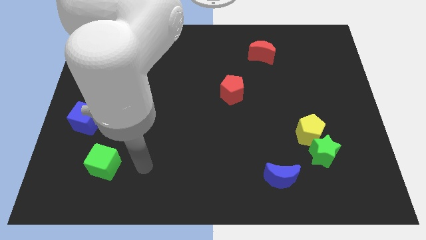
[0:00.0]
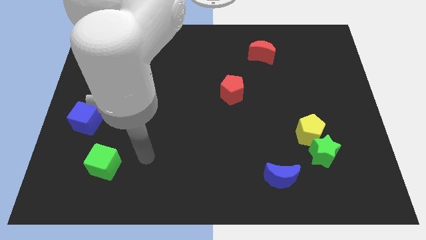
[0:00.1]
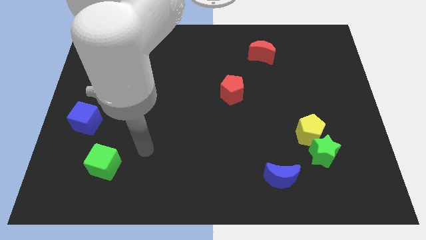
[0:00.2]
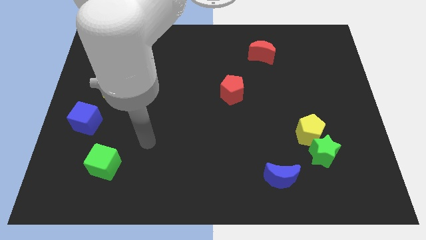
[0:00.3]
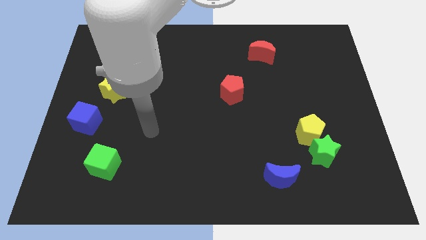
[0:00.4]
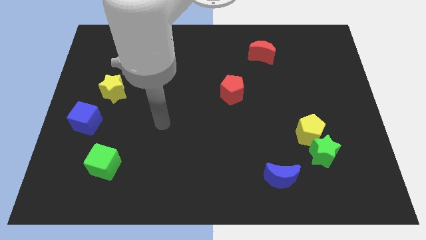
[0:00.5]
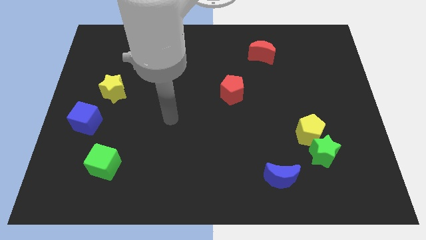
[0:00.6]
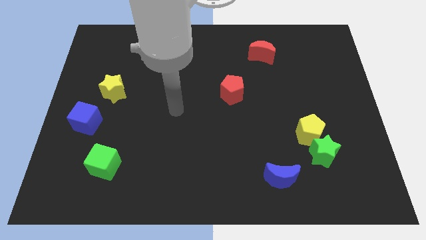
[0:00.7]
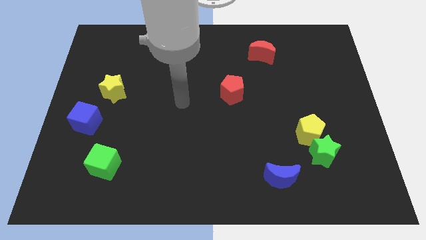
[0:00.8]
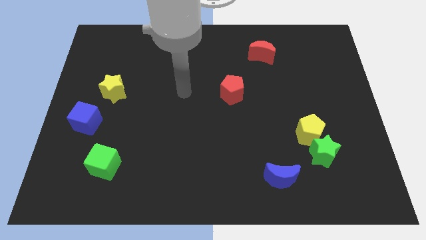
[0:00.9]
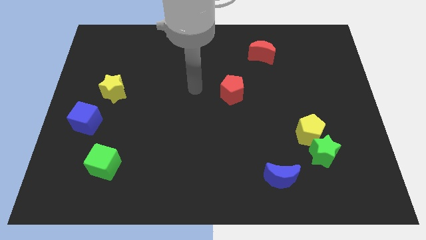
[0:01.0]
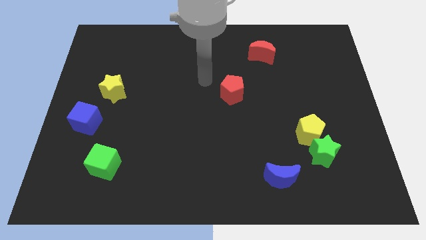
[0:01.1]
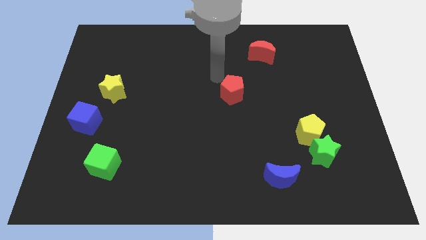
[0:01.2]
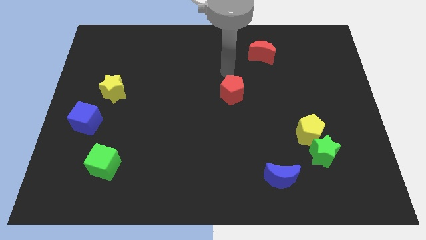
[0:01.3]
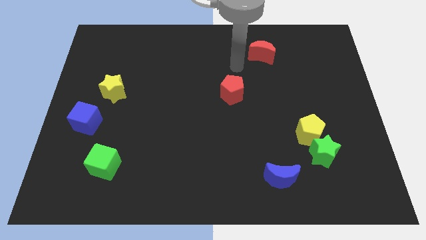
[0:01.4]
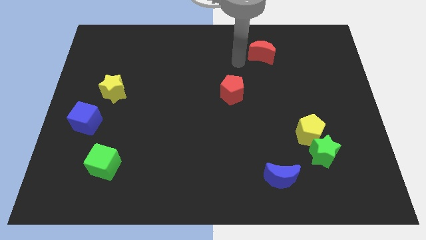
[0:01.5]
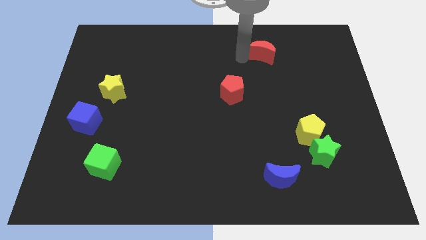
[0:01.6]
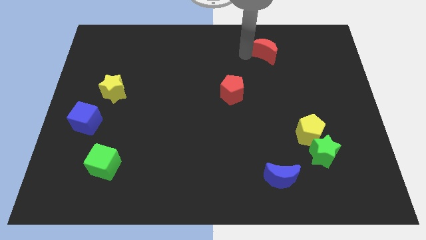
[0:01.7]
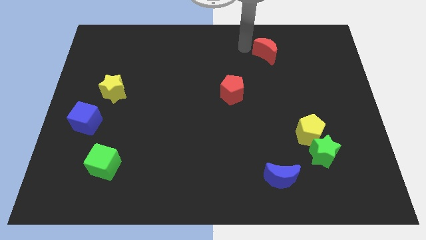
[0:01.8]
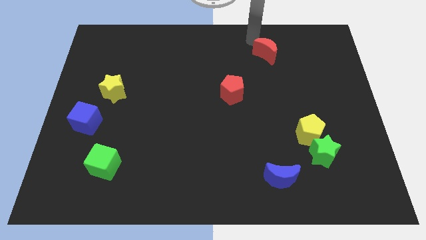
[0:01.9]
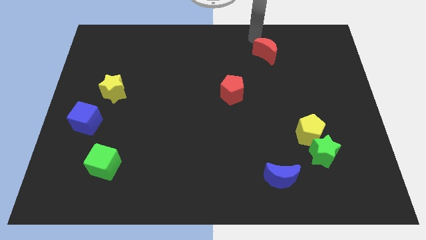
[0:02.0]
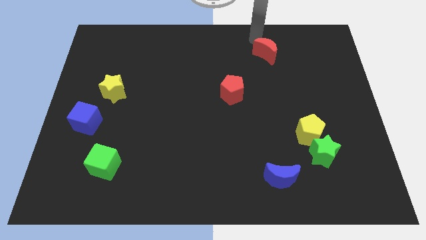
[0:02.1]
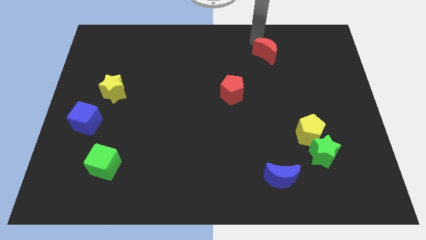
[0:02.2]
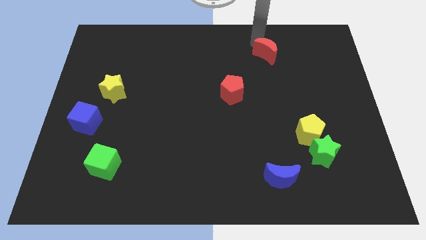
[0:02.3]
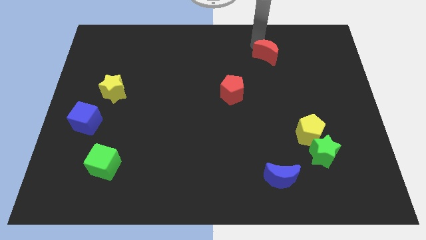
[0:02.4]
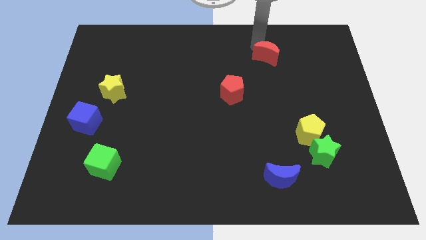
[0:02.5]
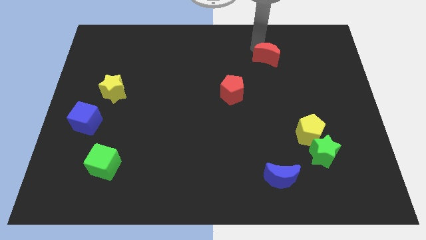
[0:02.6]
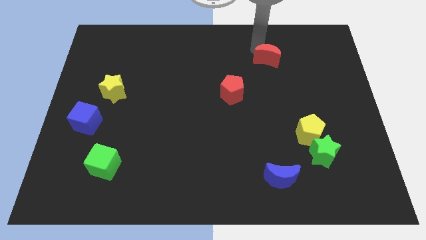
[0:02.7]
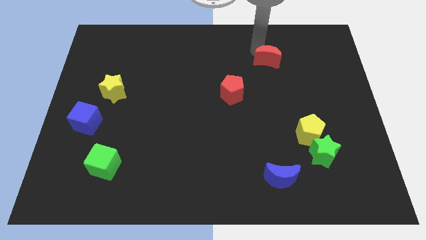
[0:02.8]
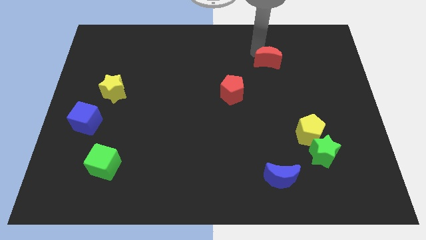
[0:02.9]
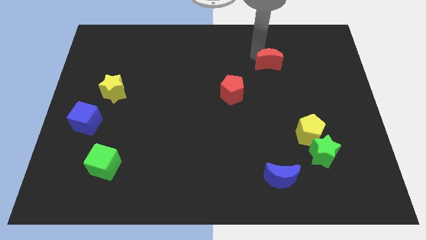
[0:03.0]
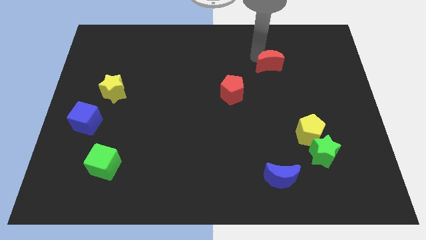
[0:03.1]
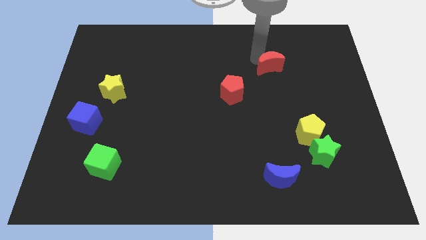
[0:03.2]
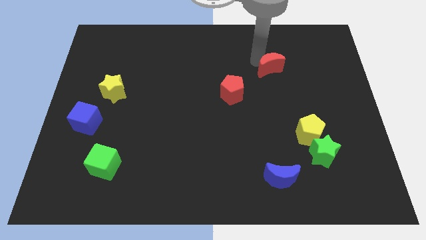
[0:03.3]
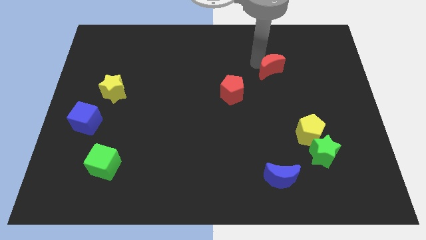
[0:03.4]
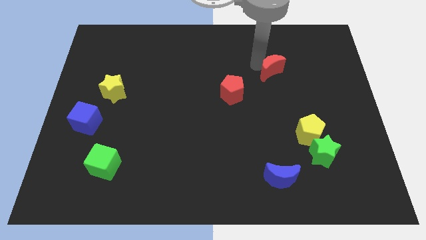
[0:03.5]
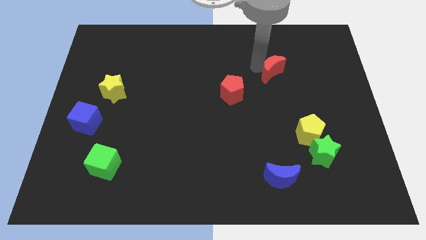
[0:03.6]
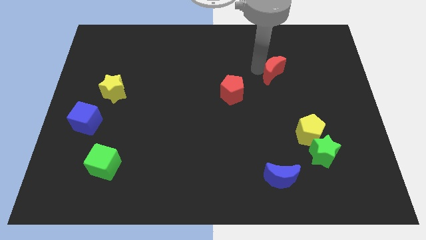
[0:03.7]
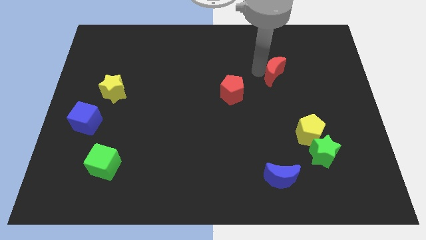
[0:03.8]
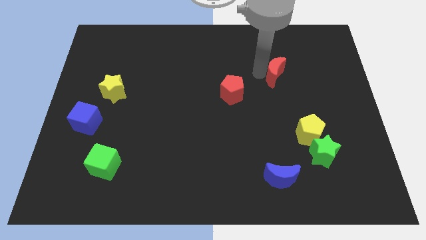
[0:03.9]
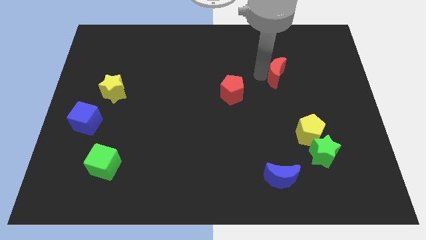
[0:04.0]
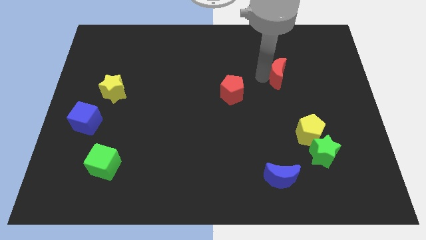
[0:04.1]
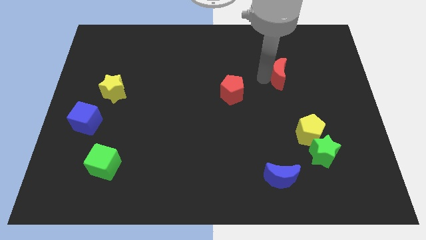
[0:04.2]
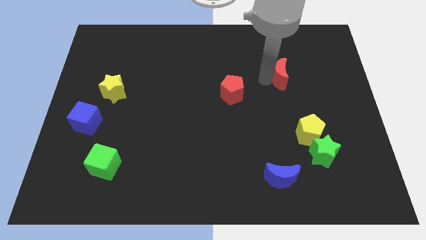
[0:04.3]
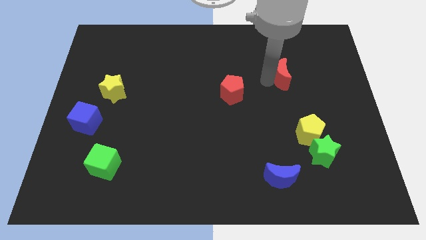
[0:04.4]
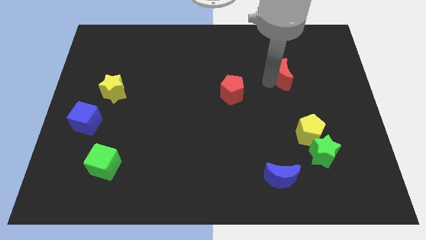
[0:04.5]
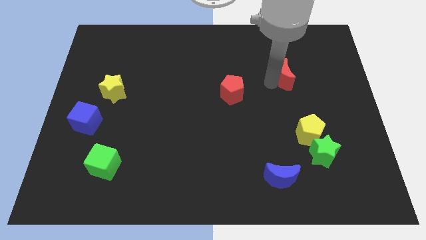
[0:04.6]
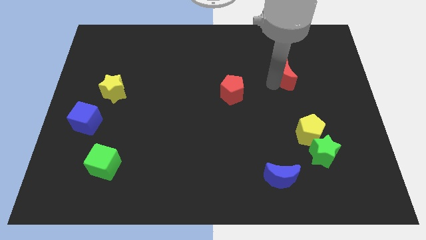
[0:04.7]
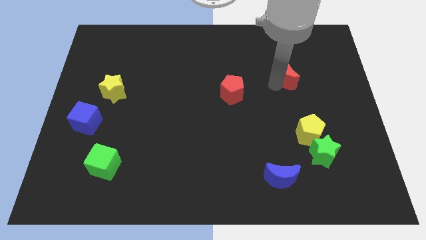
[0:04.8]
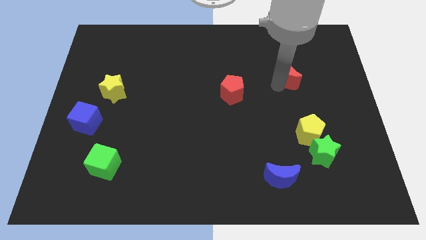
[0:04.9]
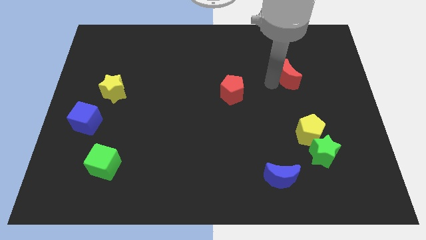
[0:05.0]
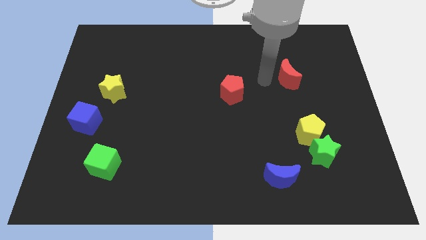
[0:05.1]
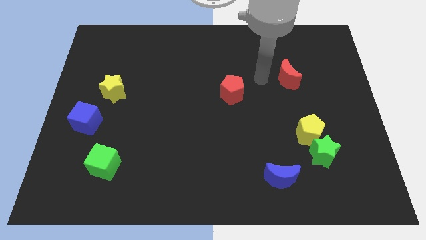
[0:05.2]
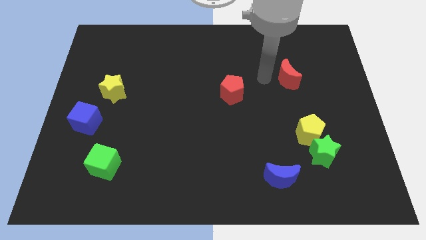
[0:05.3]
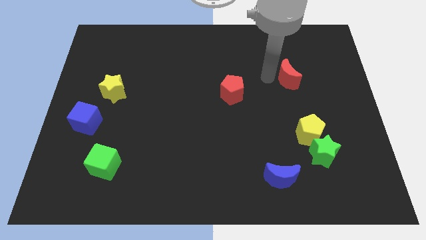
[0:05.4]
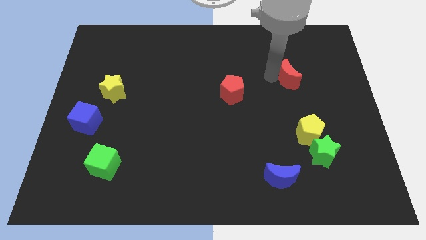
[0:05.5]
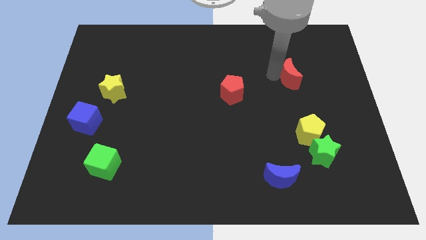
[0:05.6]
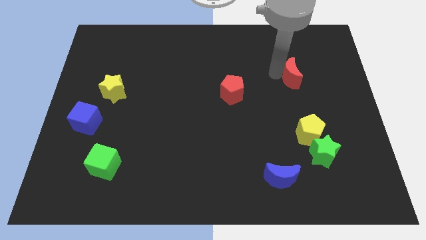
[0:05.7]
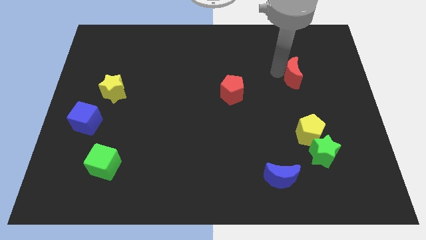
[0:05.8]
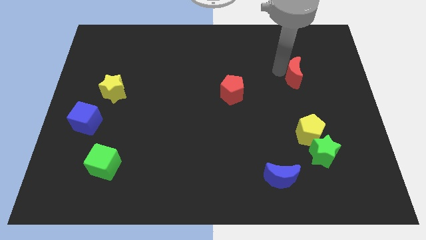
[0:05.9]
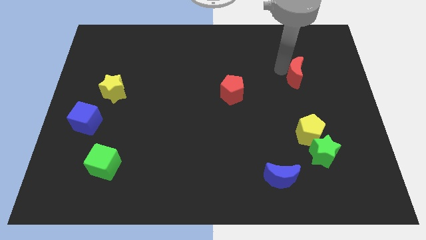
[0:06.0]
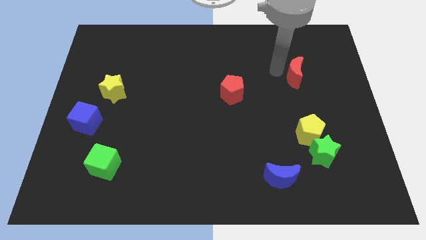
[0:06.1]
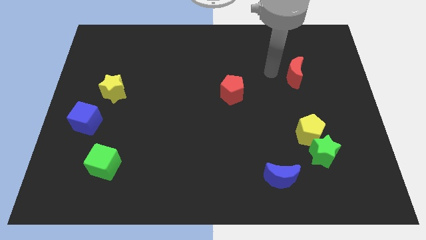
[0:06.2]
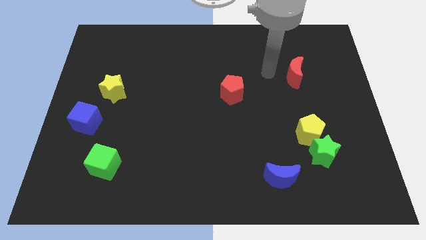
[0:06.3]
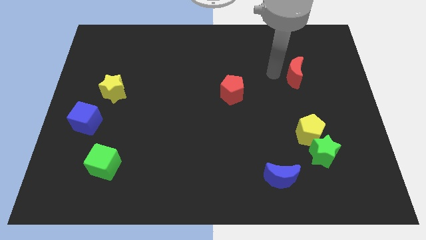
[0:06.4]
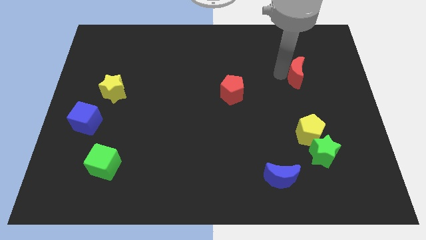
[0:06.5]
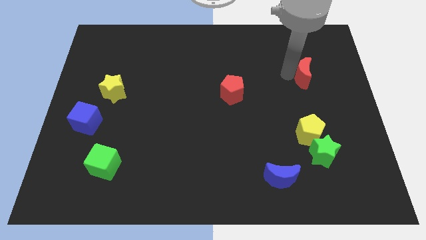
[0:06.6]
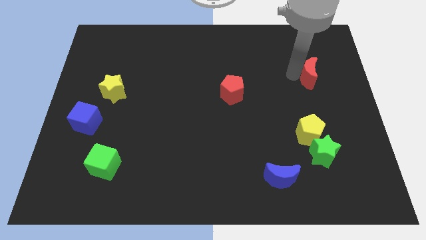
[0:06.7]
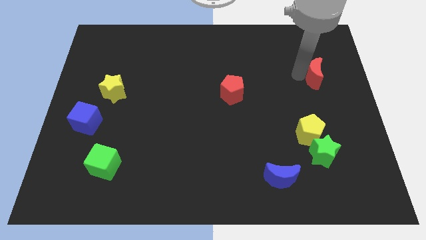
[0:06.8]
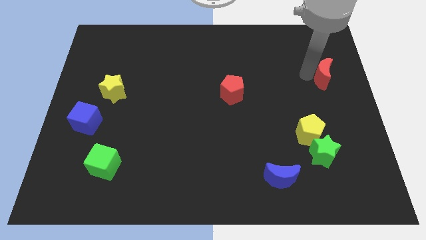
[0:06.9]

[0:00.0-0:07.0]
push the red moon to the right side of the board
